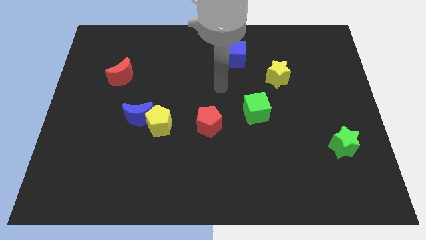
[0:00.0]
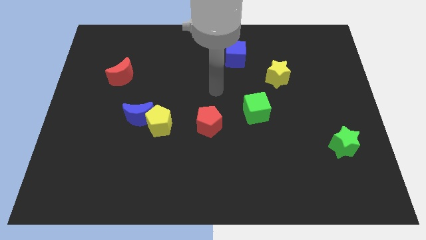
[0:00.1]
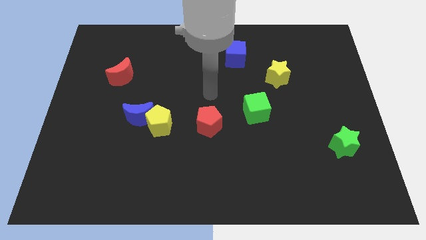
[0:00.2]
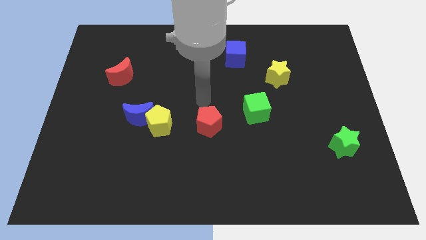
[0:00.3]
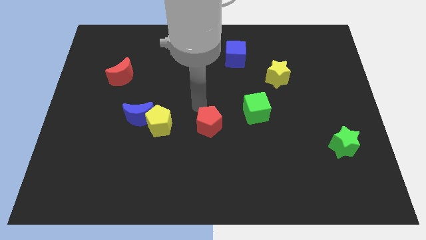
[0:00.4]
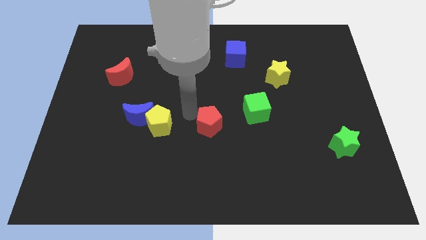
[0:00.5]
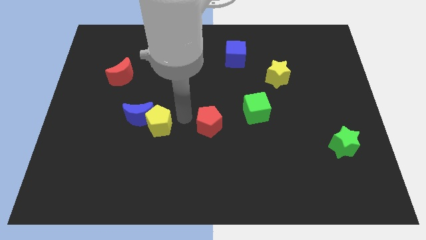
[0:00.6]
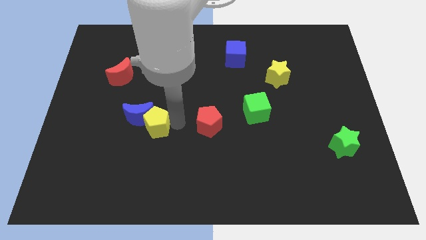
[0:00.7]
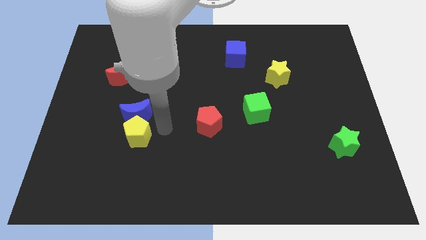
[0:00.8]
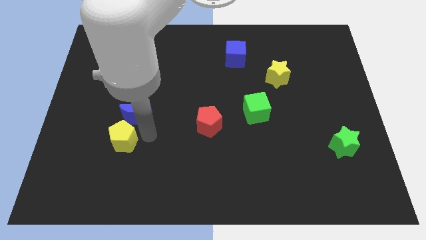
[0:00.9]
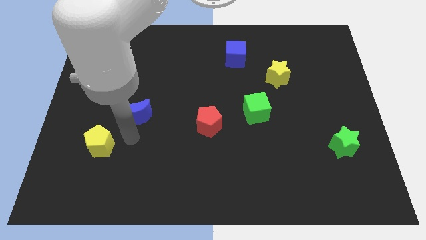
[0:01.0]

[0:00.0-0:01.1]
move the blue moon away from the yellow pentagon

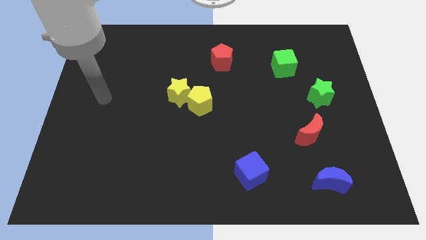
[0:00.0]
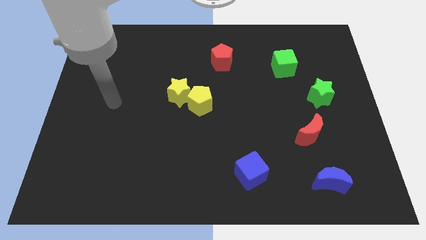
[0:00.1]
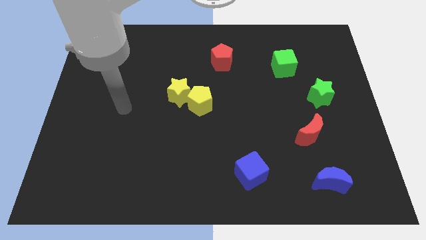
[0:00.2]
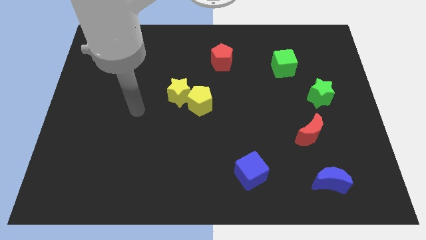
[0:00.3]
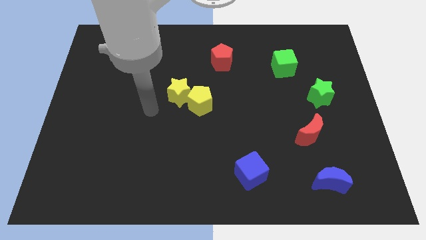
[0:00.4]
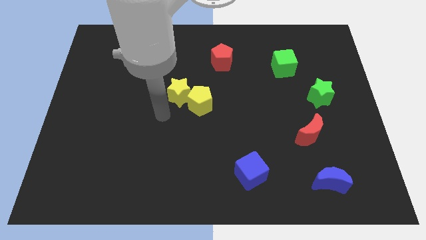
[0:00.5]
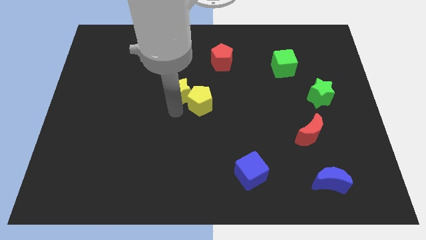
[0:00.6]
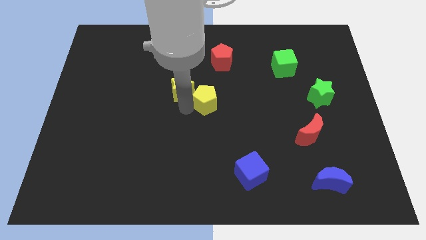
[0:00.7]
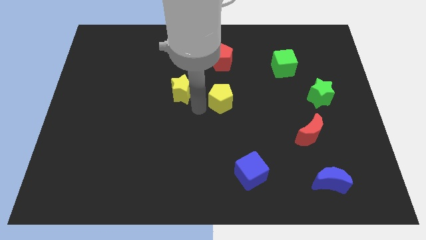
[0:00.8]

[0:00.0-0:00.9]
move the yellow star away from the yellow pentagon

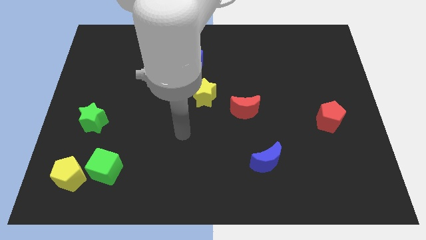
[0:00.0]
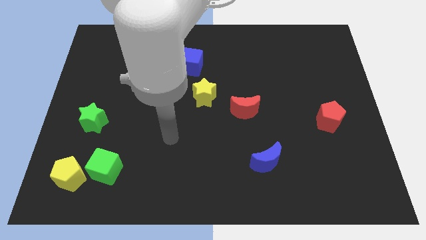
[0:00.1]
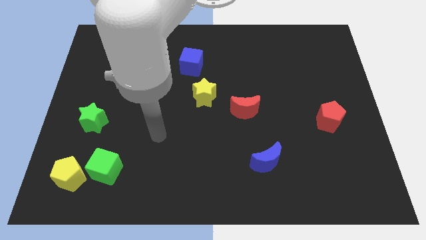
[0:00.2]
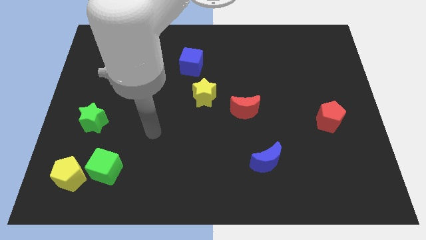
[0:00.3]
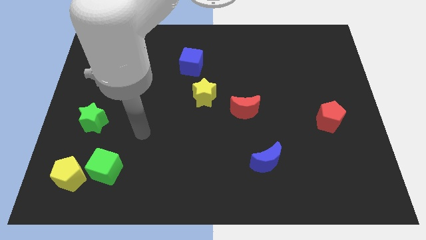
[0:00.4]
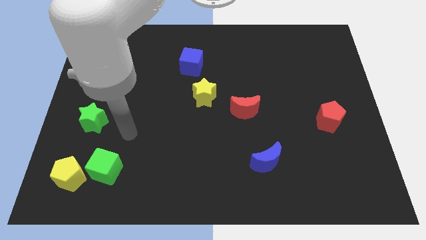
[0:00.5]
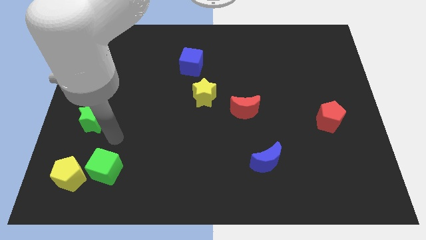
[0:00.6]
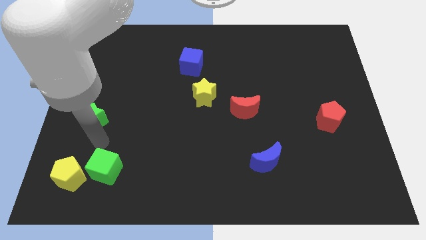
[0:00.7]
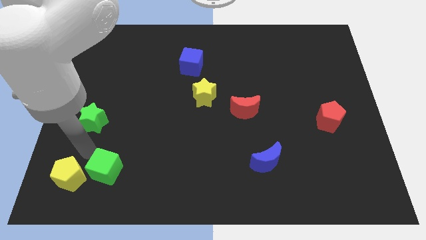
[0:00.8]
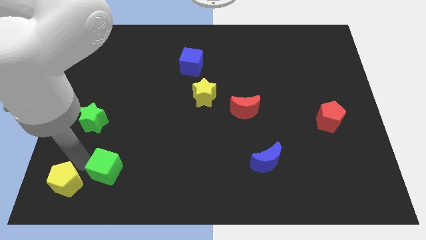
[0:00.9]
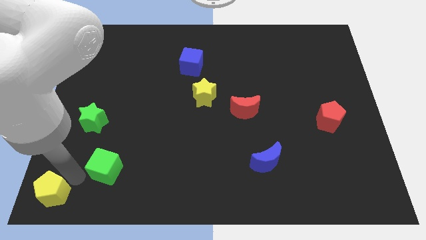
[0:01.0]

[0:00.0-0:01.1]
pull the green cube apart from the yellow pentagon

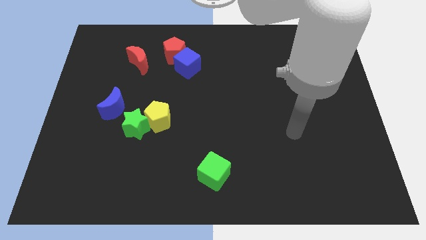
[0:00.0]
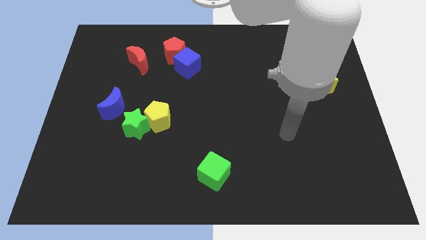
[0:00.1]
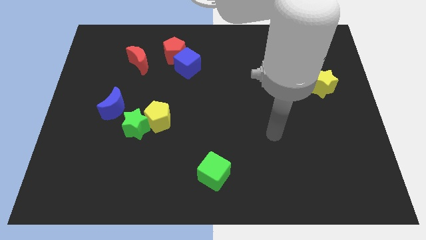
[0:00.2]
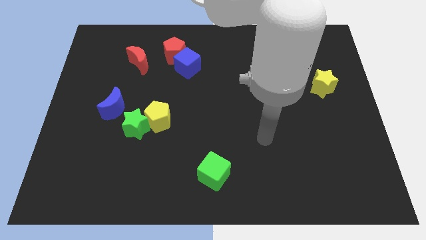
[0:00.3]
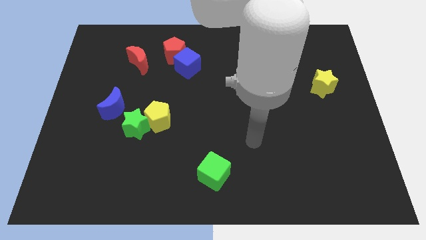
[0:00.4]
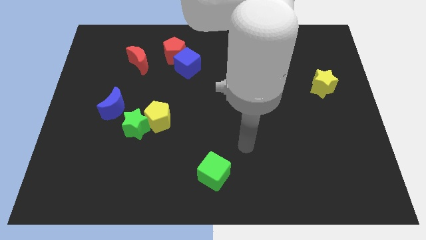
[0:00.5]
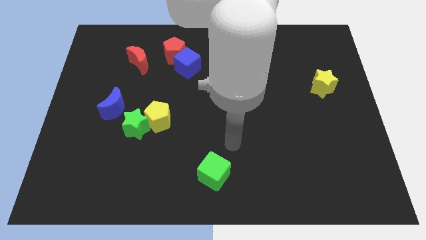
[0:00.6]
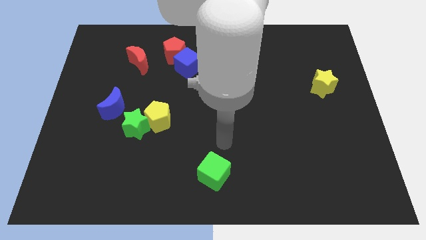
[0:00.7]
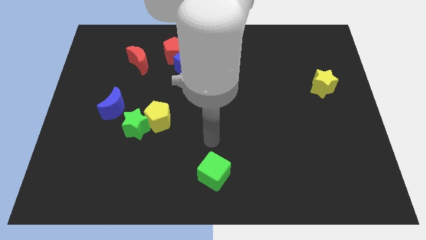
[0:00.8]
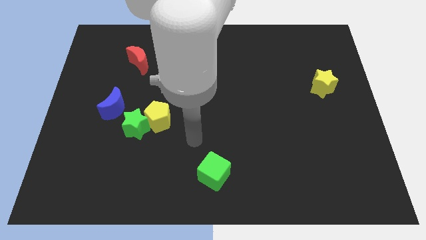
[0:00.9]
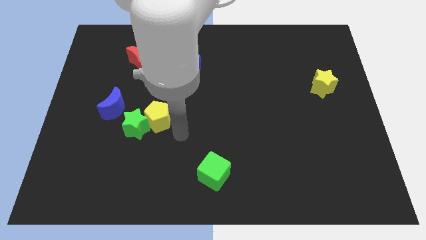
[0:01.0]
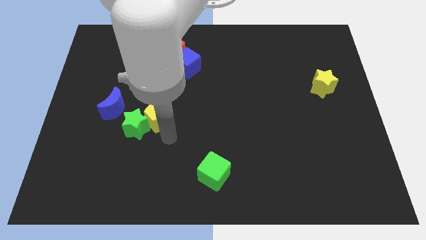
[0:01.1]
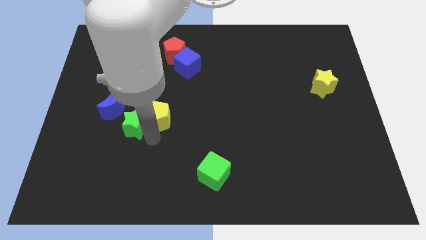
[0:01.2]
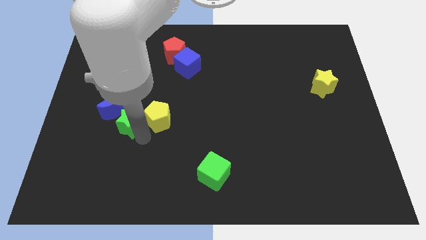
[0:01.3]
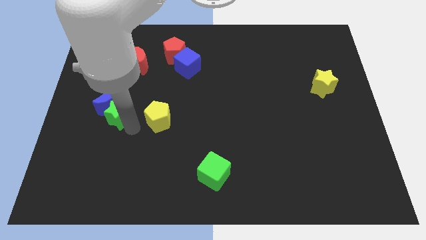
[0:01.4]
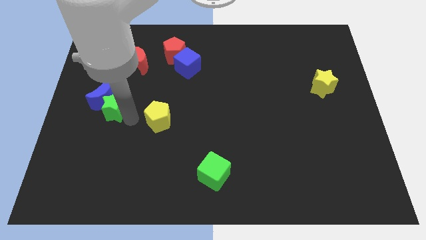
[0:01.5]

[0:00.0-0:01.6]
move the yellow pentagon away from the green star

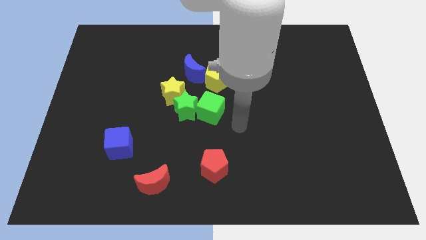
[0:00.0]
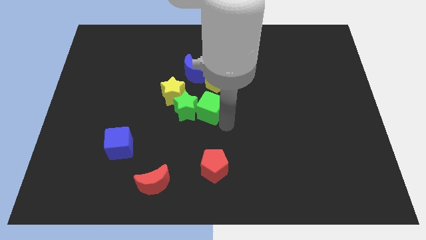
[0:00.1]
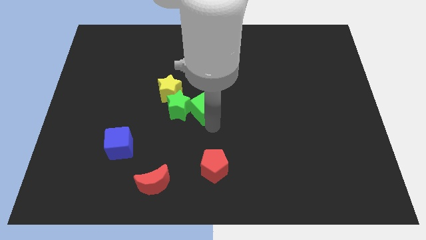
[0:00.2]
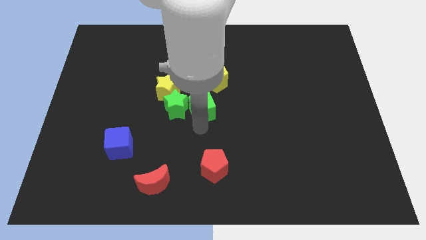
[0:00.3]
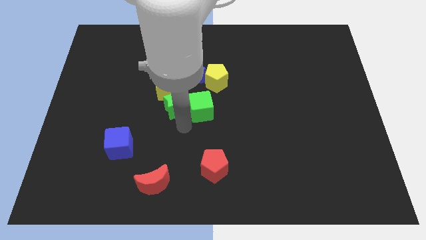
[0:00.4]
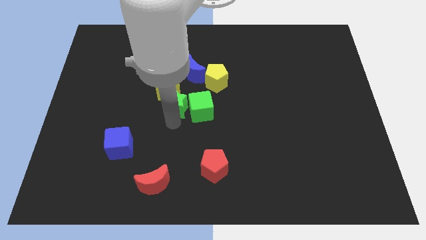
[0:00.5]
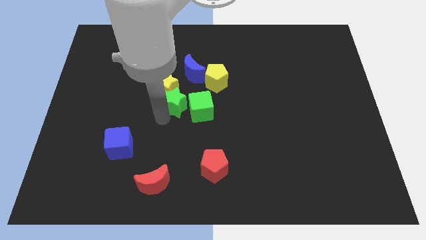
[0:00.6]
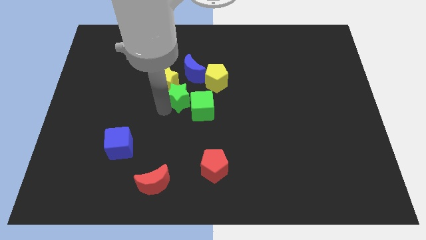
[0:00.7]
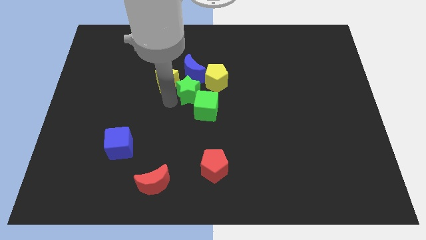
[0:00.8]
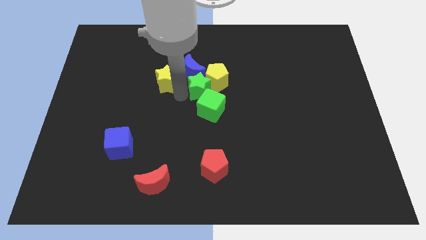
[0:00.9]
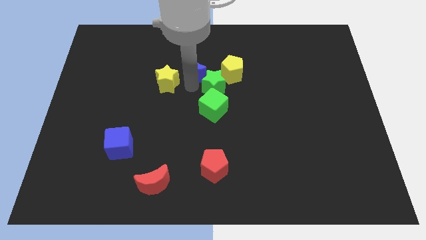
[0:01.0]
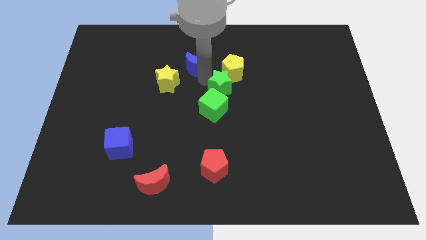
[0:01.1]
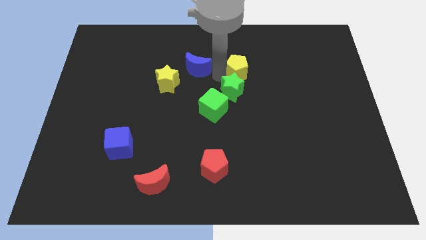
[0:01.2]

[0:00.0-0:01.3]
pull the green star apart from the green cube and yellow star

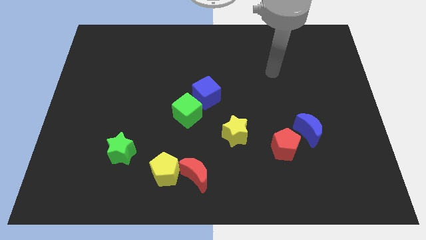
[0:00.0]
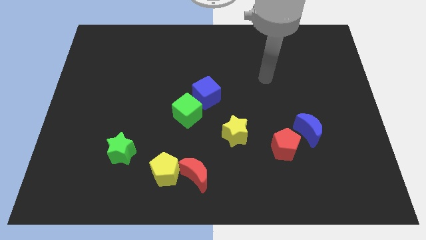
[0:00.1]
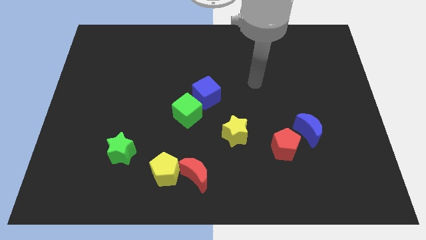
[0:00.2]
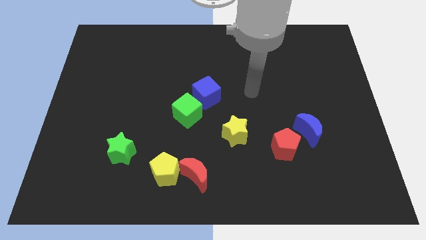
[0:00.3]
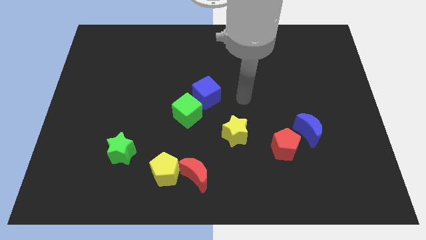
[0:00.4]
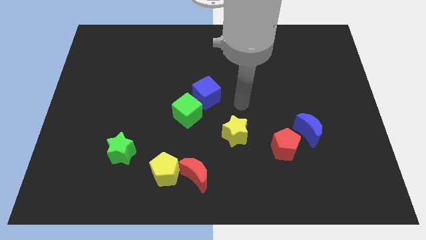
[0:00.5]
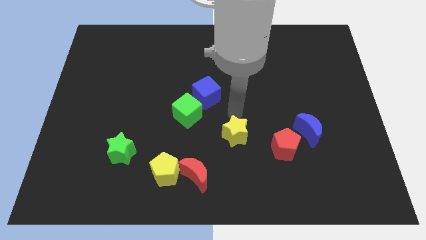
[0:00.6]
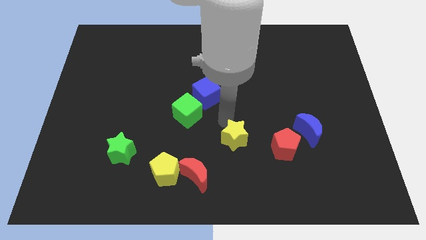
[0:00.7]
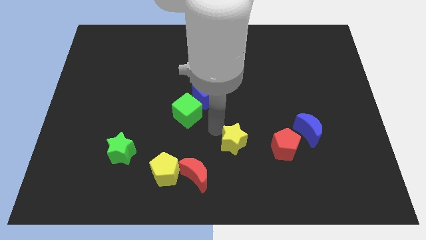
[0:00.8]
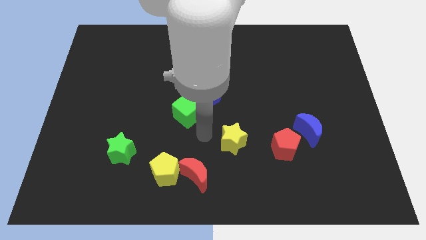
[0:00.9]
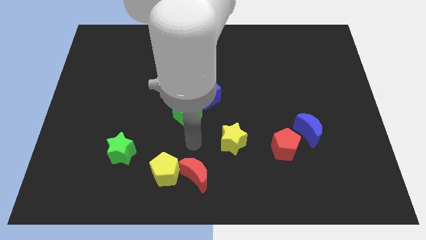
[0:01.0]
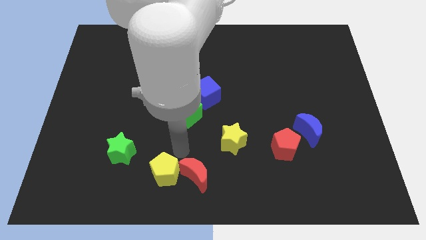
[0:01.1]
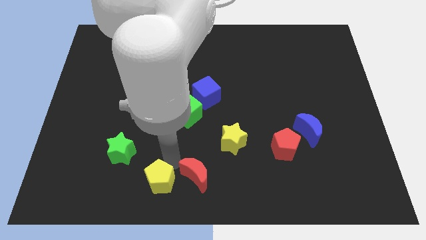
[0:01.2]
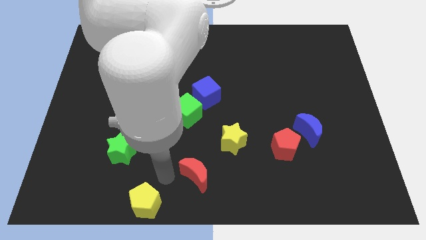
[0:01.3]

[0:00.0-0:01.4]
separate the red moon from the yellow pentagon

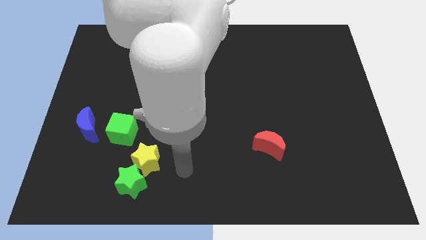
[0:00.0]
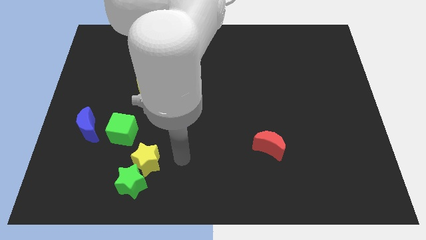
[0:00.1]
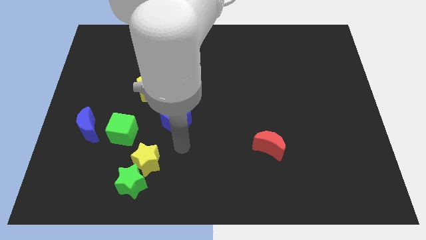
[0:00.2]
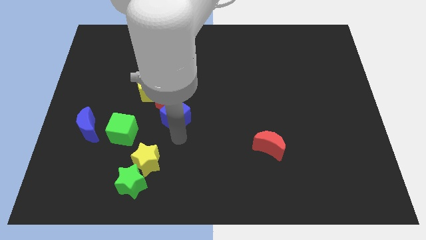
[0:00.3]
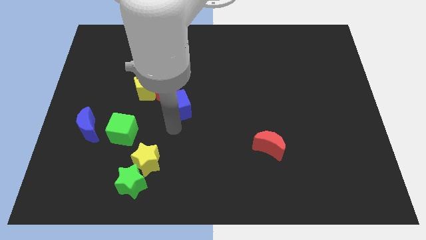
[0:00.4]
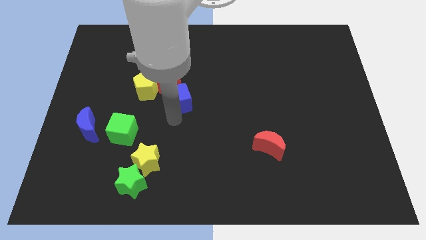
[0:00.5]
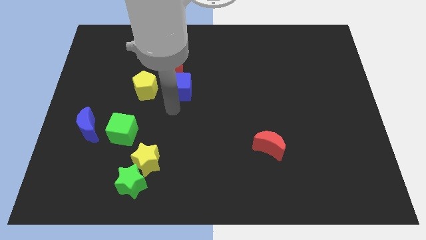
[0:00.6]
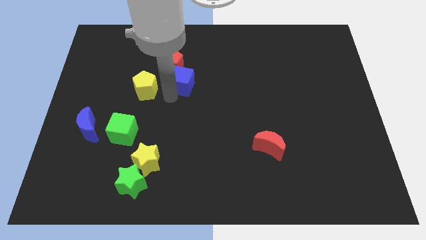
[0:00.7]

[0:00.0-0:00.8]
pull the yellow pentagon apart from the red pentagon

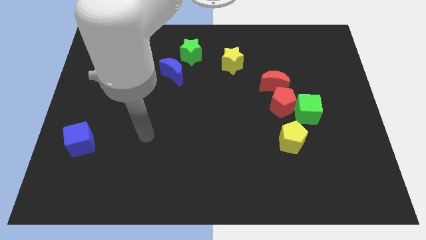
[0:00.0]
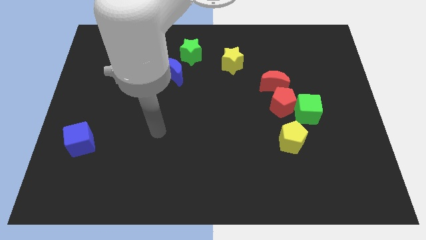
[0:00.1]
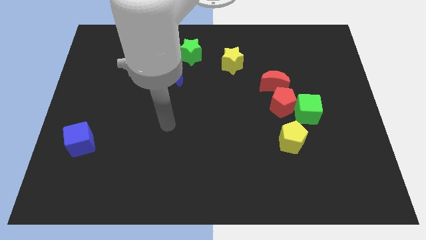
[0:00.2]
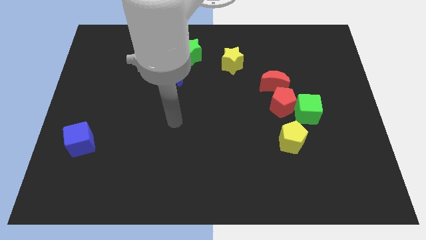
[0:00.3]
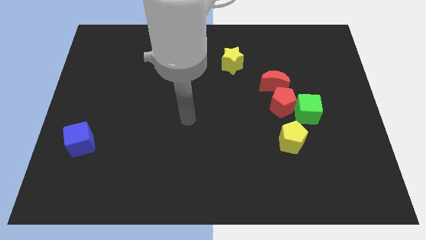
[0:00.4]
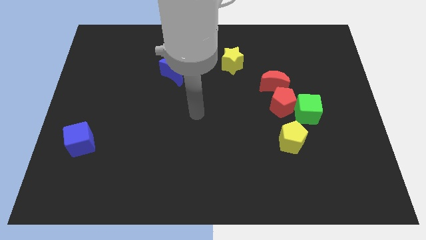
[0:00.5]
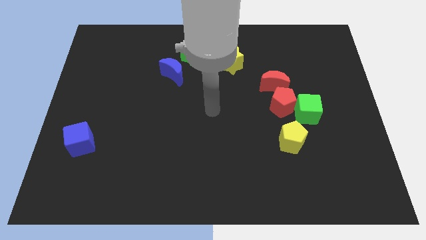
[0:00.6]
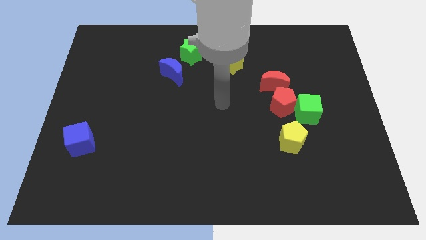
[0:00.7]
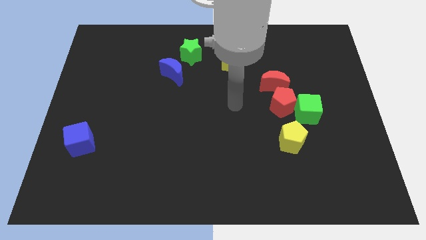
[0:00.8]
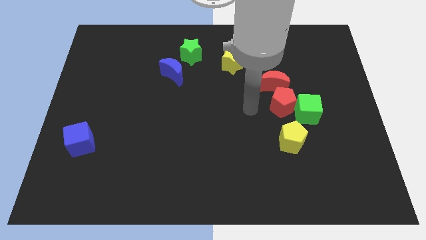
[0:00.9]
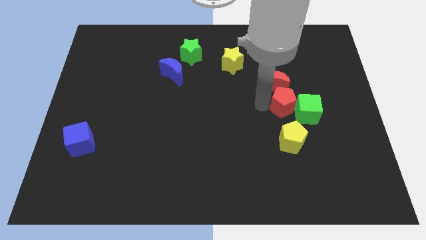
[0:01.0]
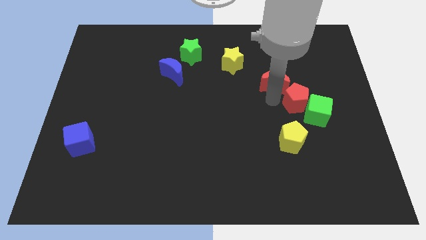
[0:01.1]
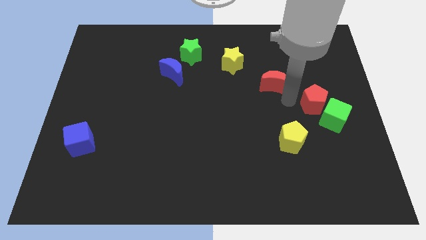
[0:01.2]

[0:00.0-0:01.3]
separate the red moon from the red pentagon
